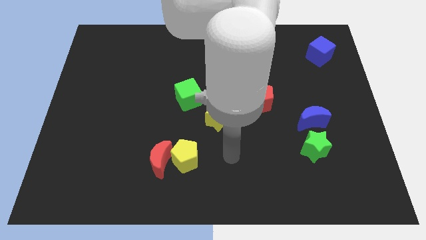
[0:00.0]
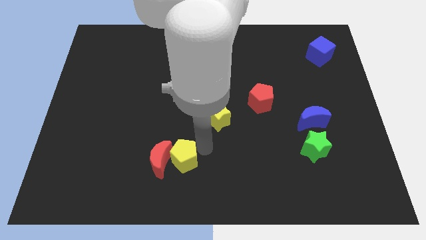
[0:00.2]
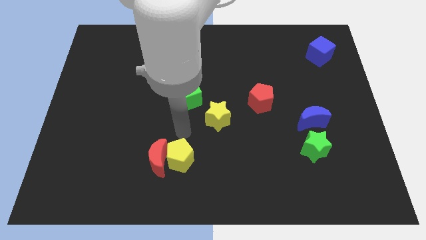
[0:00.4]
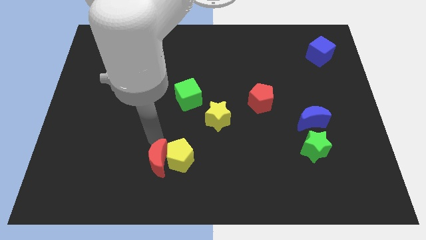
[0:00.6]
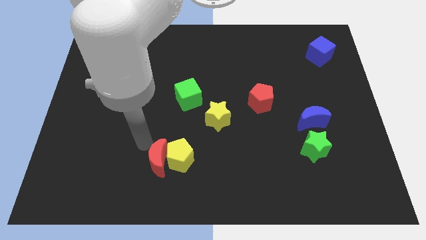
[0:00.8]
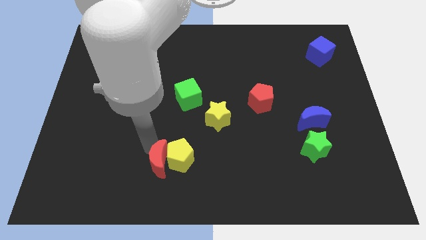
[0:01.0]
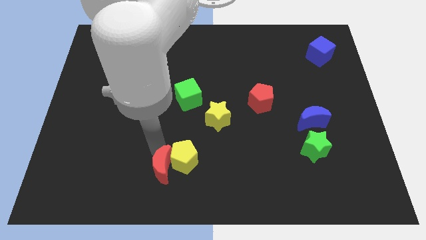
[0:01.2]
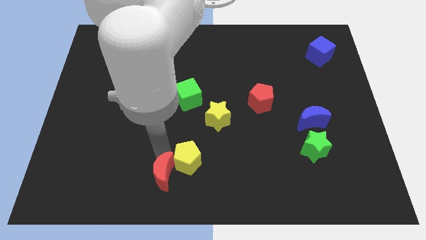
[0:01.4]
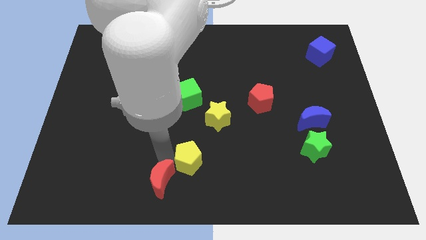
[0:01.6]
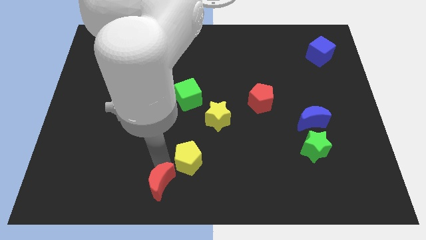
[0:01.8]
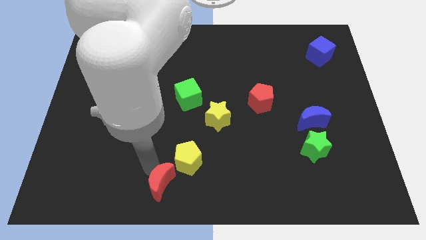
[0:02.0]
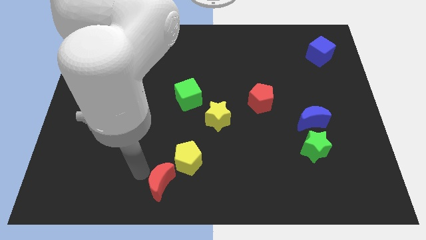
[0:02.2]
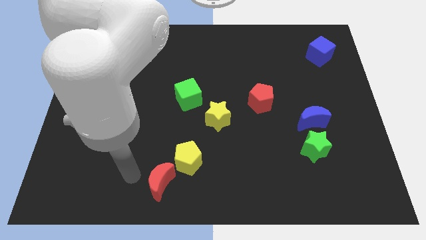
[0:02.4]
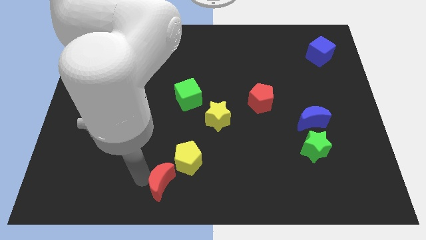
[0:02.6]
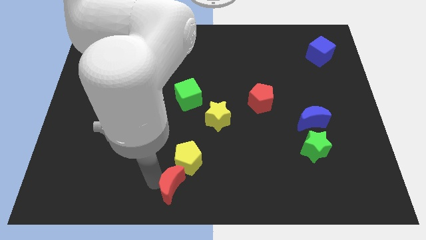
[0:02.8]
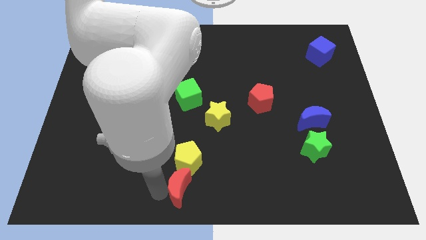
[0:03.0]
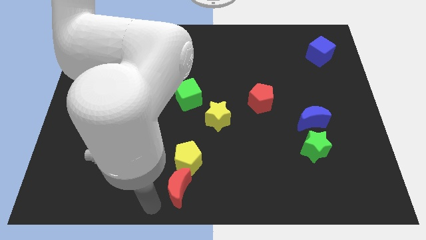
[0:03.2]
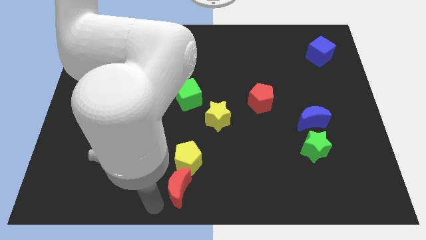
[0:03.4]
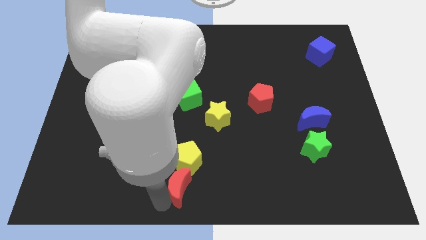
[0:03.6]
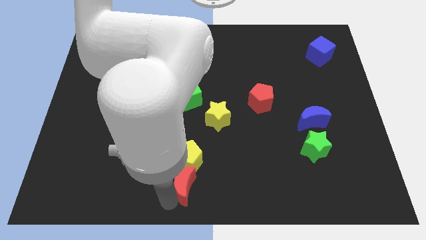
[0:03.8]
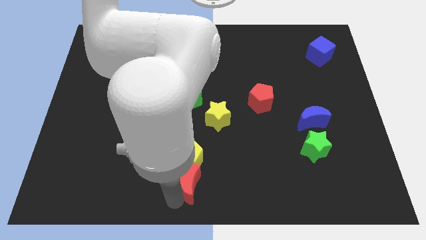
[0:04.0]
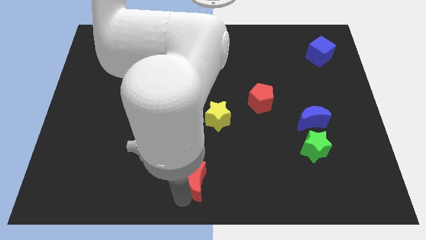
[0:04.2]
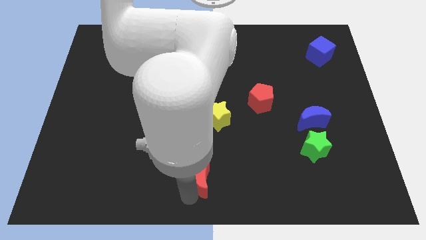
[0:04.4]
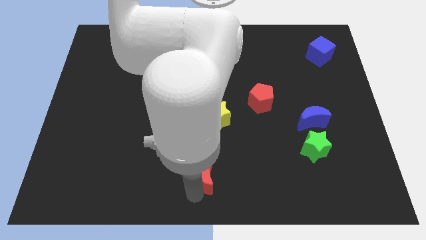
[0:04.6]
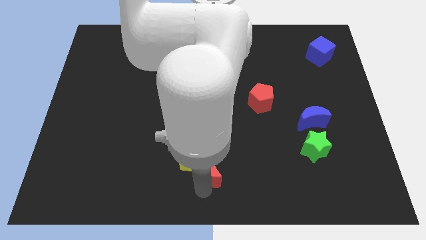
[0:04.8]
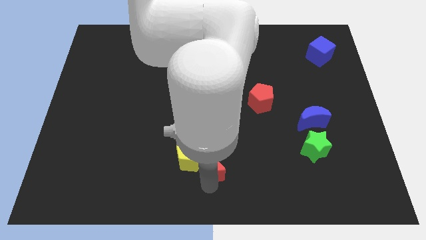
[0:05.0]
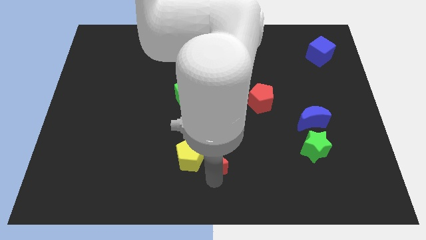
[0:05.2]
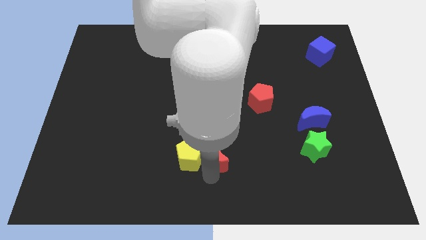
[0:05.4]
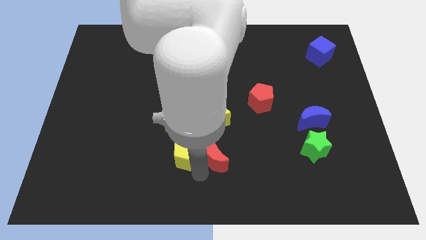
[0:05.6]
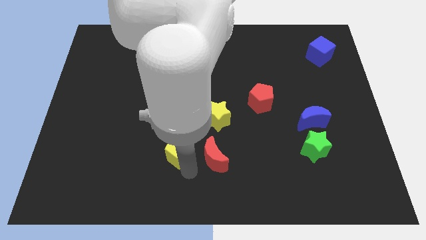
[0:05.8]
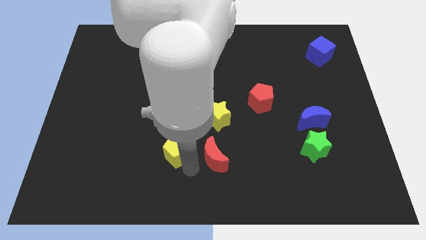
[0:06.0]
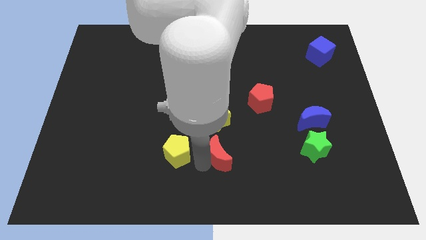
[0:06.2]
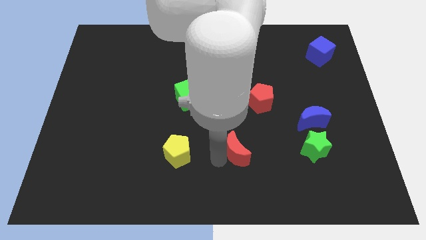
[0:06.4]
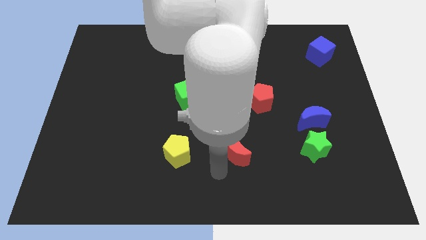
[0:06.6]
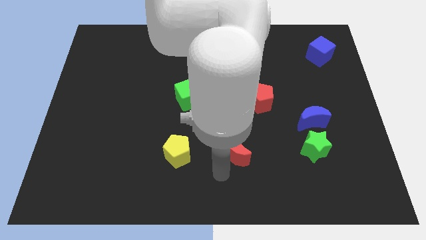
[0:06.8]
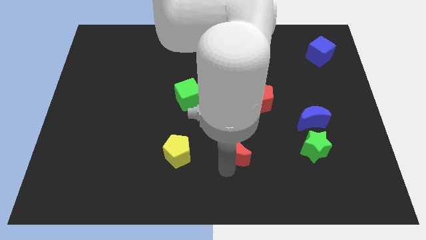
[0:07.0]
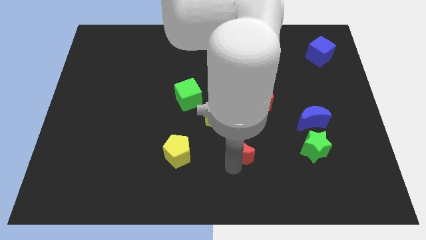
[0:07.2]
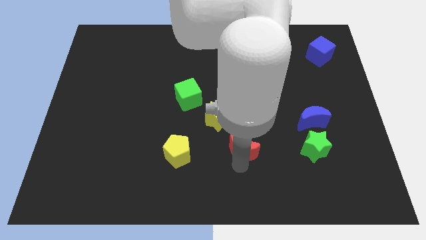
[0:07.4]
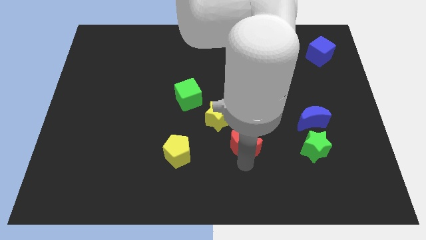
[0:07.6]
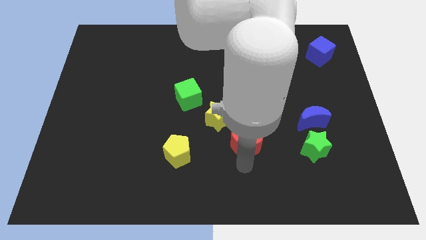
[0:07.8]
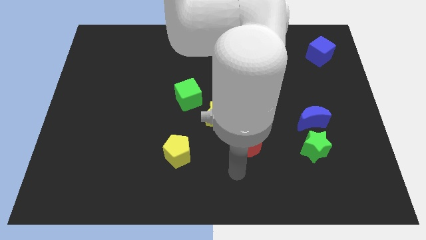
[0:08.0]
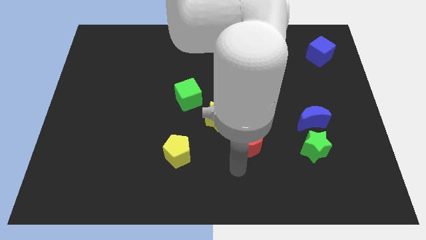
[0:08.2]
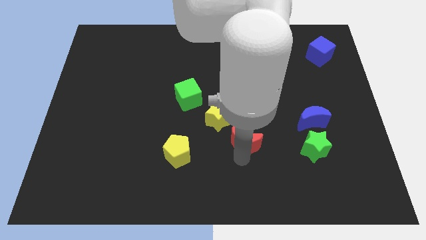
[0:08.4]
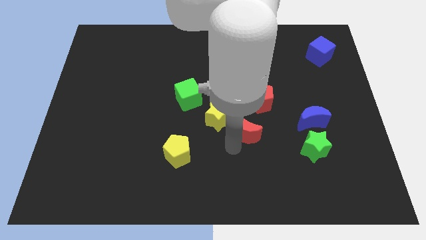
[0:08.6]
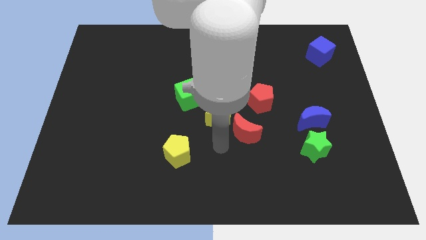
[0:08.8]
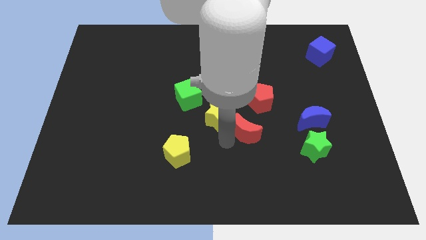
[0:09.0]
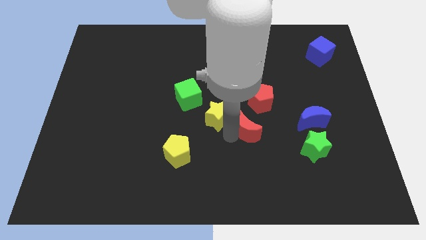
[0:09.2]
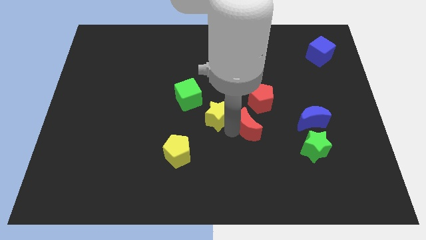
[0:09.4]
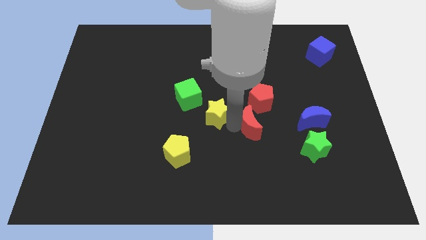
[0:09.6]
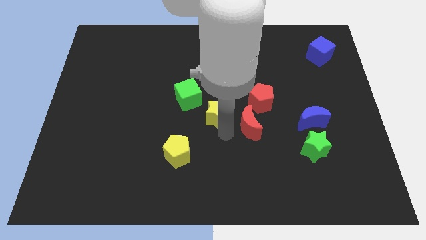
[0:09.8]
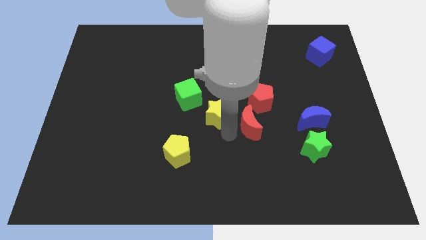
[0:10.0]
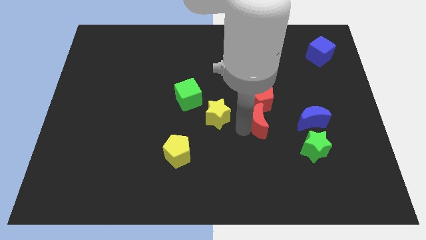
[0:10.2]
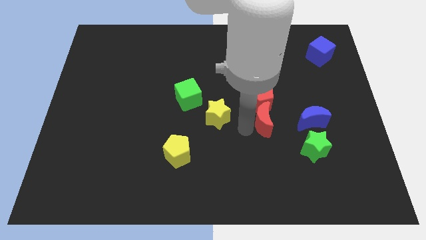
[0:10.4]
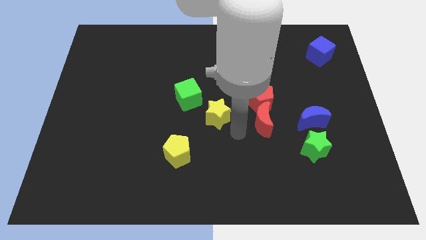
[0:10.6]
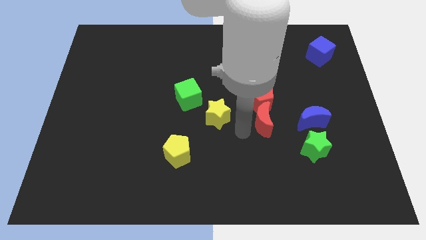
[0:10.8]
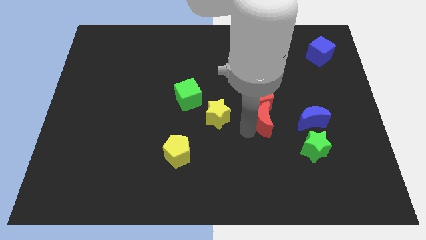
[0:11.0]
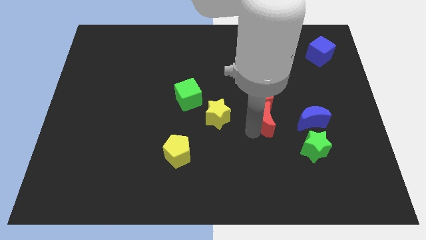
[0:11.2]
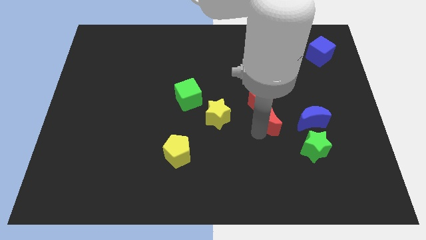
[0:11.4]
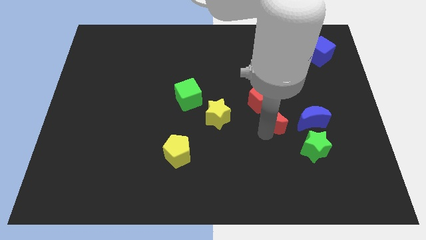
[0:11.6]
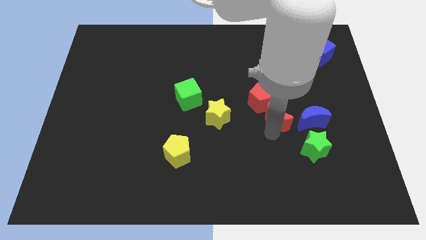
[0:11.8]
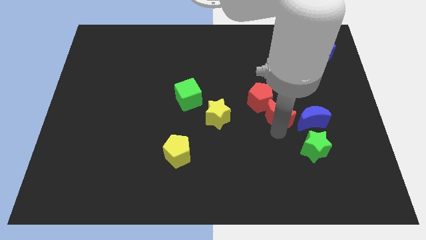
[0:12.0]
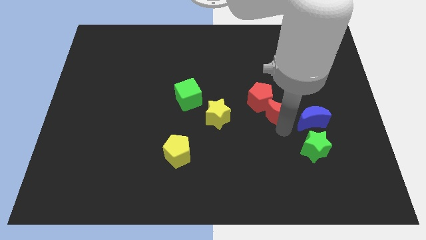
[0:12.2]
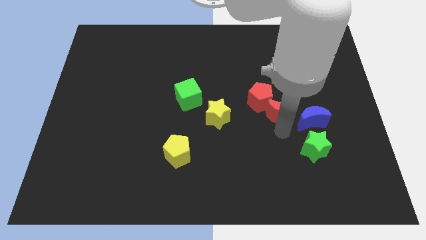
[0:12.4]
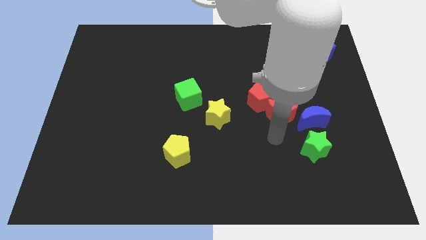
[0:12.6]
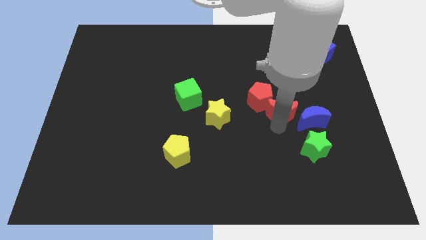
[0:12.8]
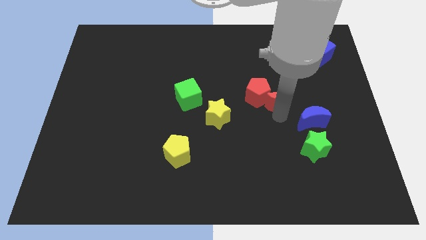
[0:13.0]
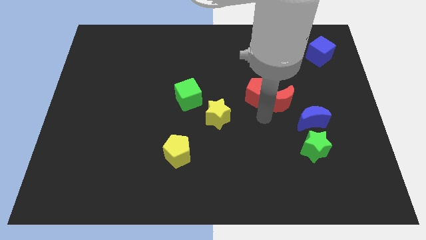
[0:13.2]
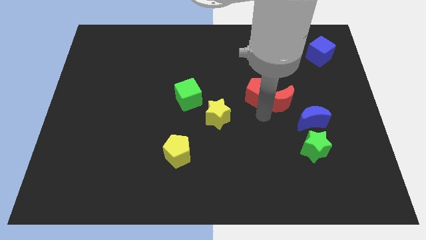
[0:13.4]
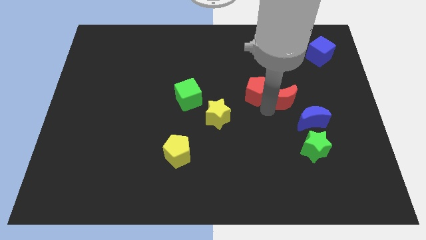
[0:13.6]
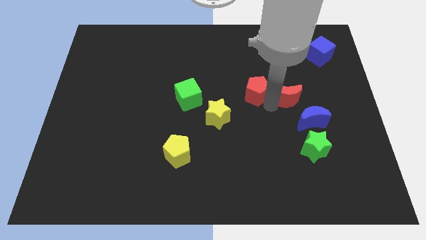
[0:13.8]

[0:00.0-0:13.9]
put the red moon to the top side of the blue moon

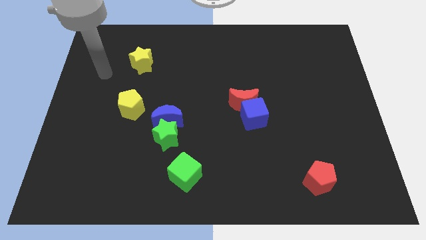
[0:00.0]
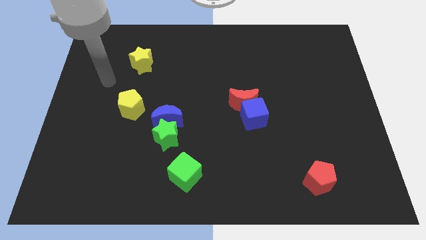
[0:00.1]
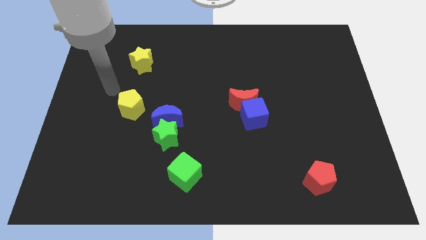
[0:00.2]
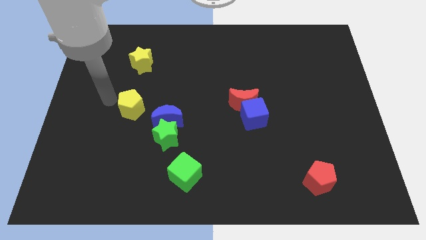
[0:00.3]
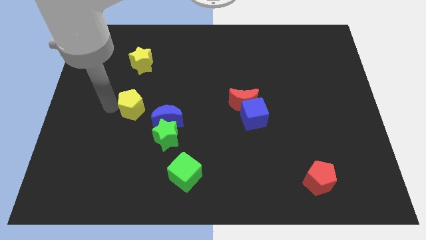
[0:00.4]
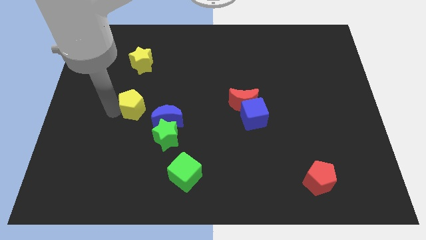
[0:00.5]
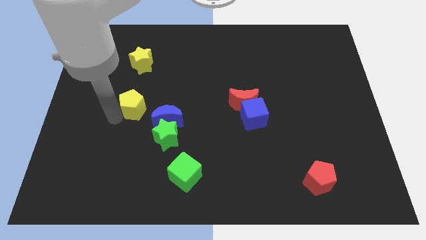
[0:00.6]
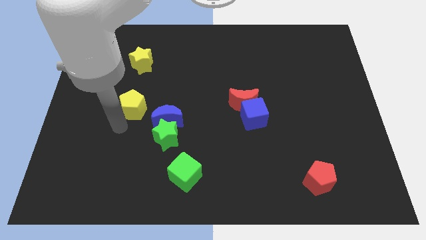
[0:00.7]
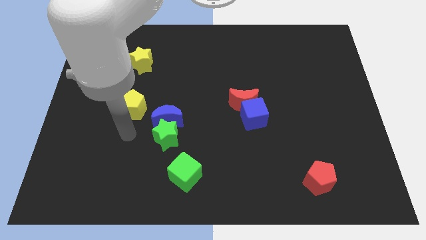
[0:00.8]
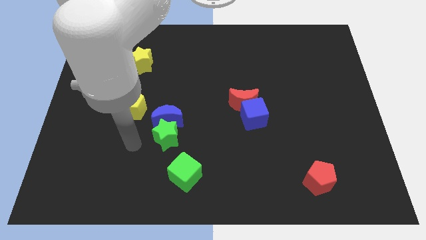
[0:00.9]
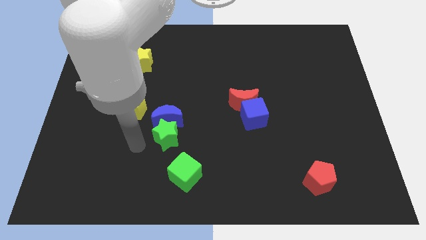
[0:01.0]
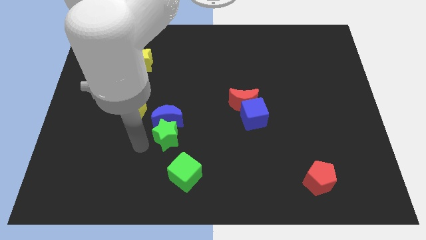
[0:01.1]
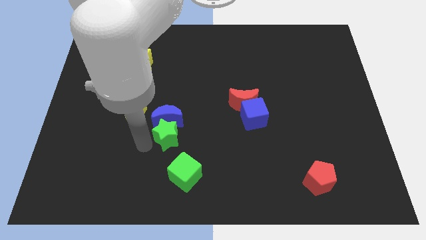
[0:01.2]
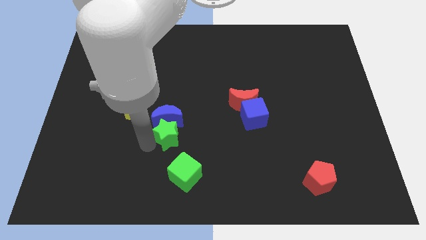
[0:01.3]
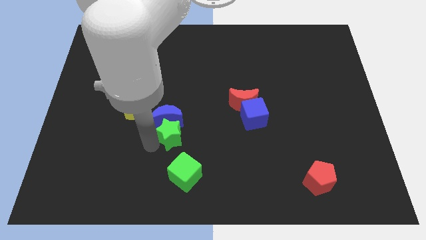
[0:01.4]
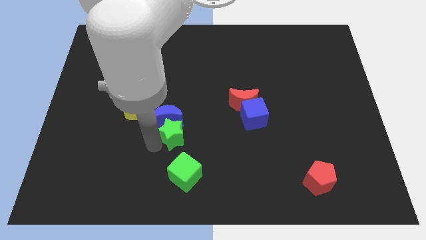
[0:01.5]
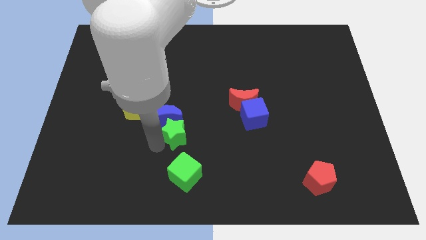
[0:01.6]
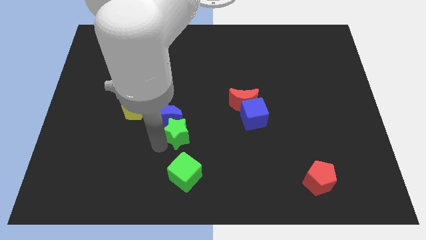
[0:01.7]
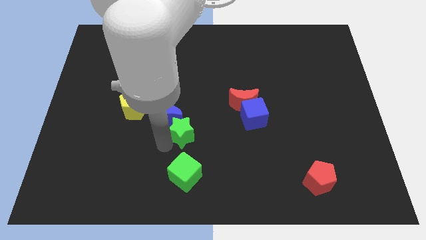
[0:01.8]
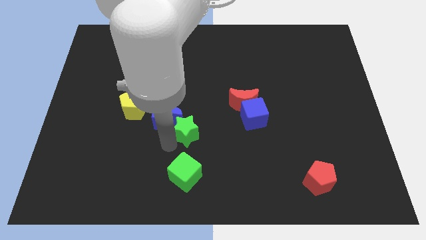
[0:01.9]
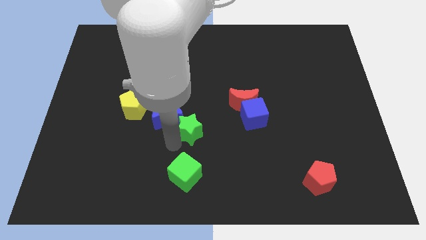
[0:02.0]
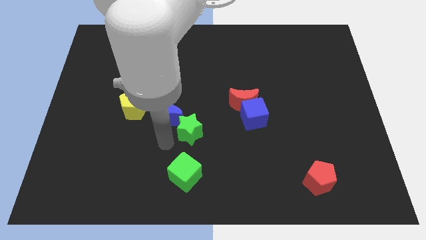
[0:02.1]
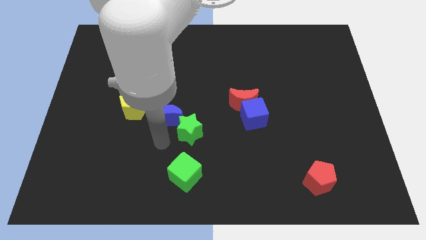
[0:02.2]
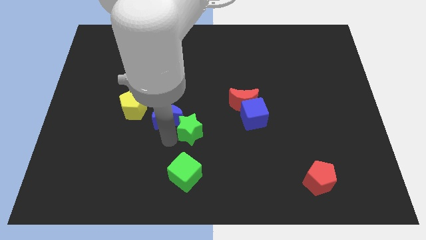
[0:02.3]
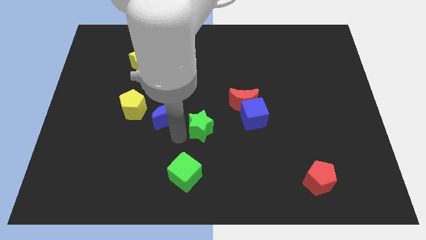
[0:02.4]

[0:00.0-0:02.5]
slide the green star to the bottom left side of the red moon
